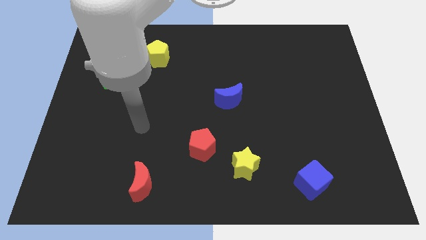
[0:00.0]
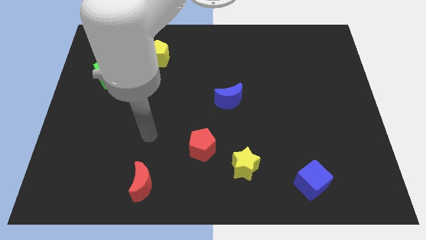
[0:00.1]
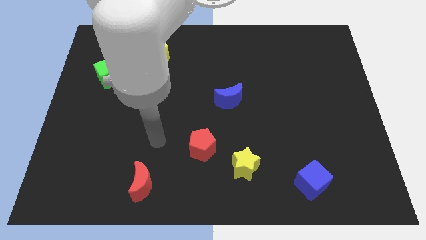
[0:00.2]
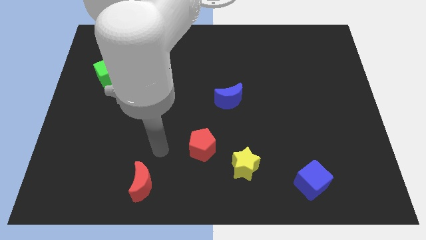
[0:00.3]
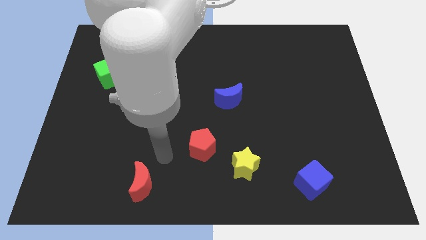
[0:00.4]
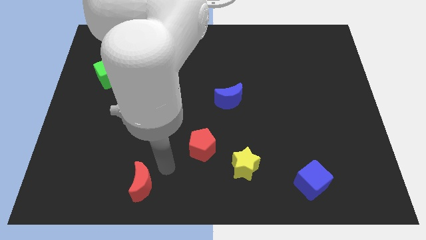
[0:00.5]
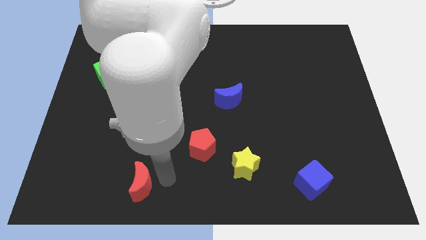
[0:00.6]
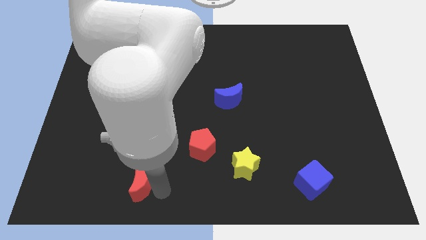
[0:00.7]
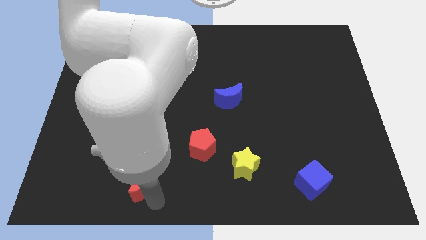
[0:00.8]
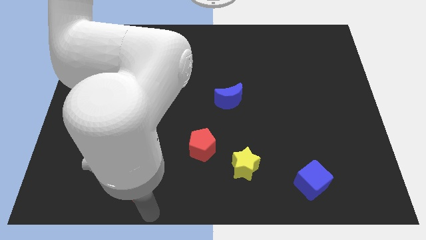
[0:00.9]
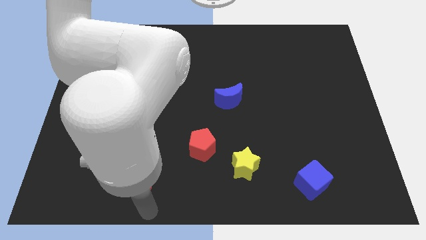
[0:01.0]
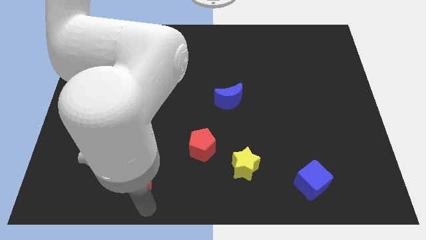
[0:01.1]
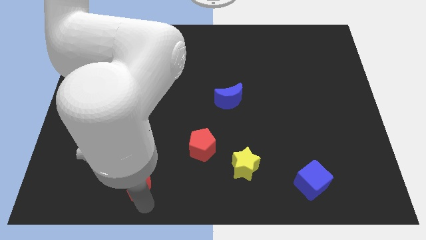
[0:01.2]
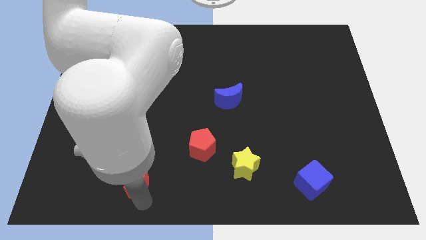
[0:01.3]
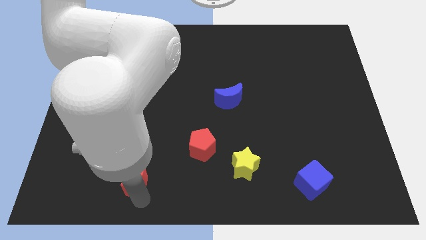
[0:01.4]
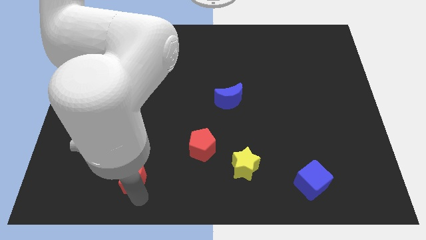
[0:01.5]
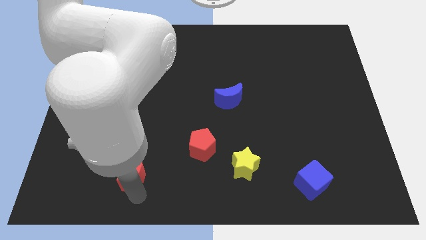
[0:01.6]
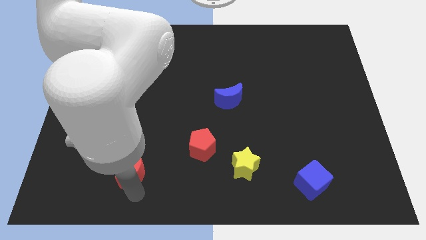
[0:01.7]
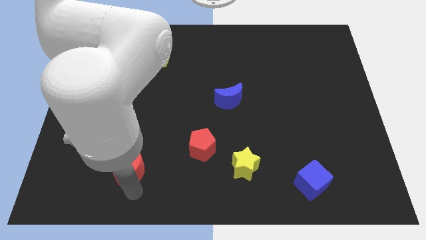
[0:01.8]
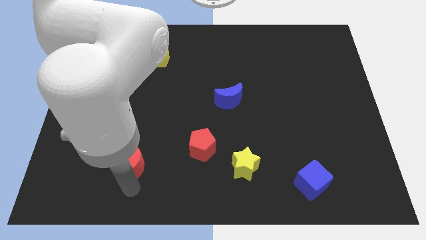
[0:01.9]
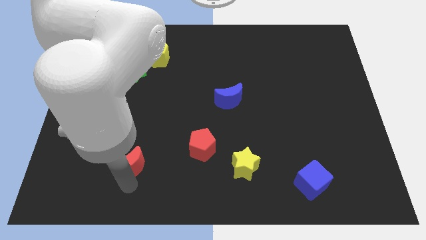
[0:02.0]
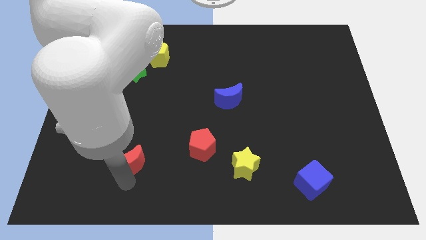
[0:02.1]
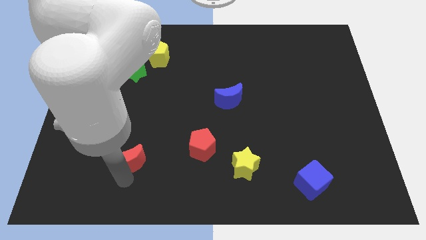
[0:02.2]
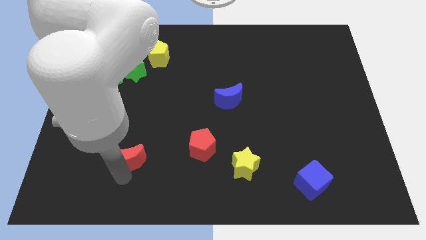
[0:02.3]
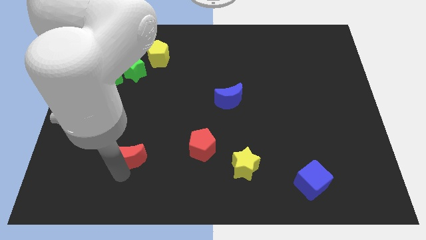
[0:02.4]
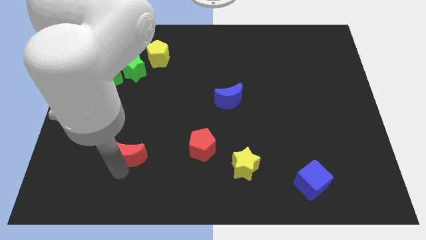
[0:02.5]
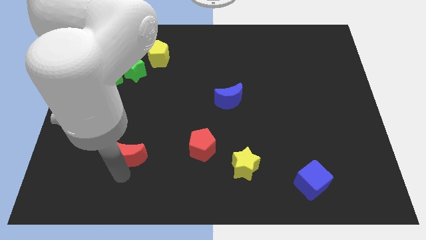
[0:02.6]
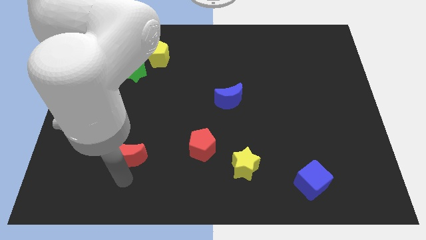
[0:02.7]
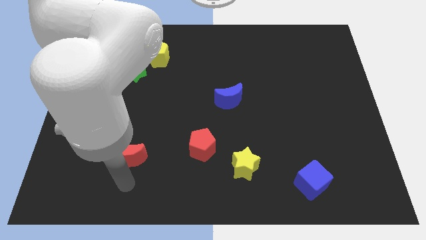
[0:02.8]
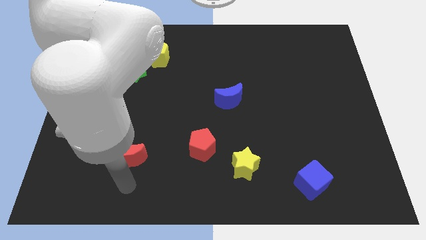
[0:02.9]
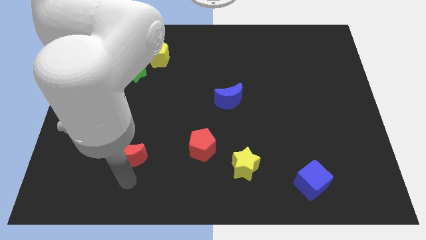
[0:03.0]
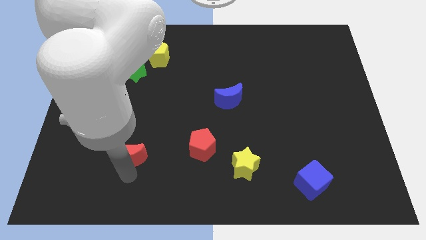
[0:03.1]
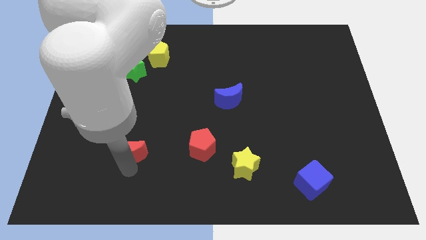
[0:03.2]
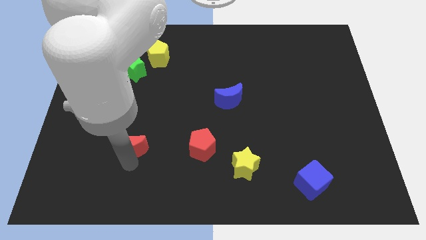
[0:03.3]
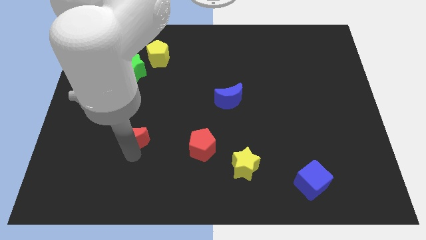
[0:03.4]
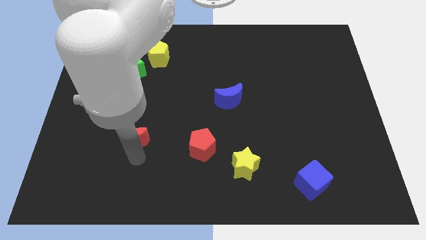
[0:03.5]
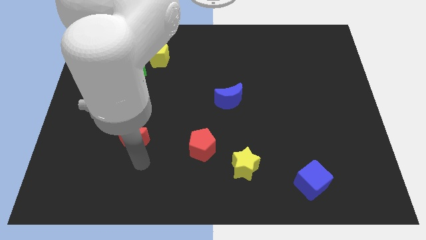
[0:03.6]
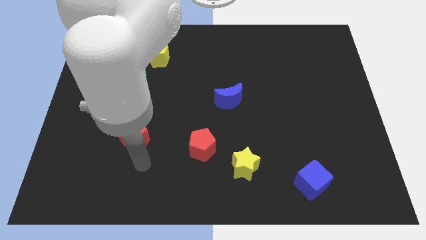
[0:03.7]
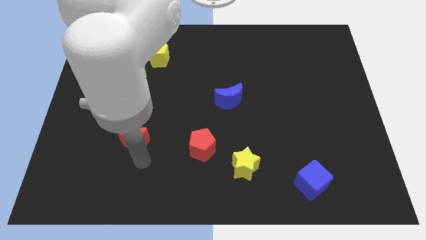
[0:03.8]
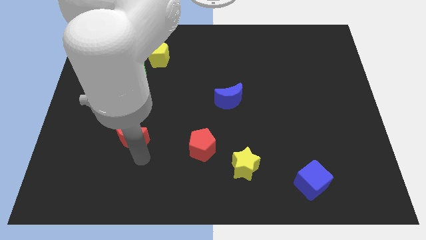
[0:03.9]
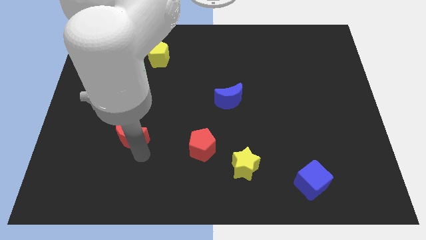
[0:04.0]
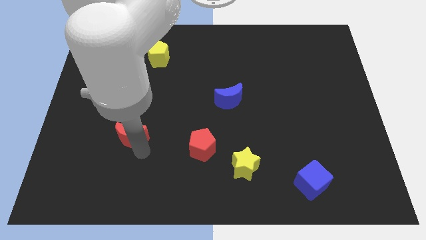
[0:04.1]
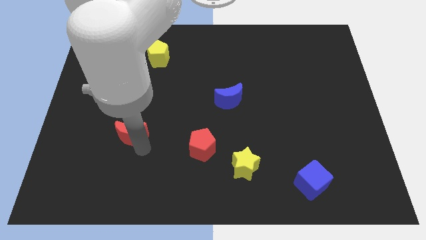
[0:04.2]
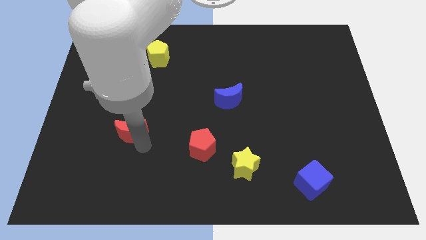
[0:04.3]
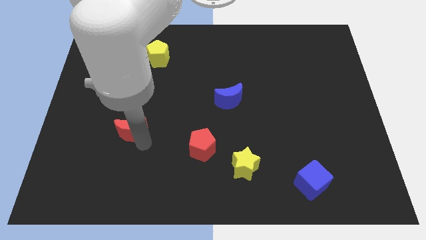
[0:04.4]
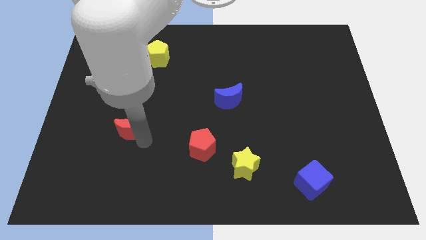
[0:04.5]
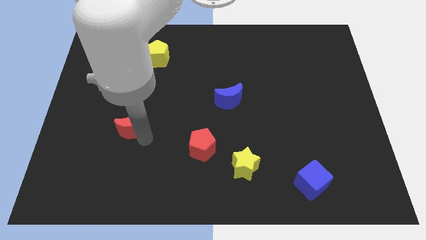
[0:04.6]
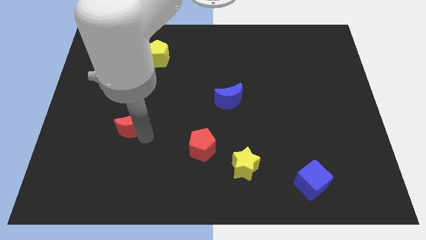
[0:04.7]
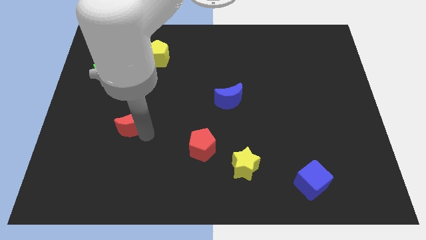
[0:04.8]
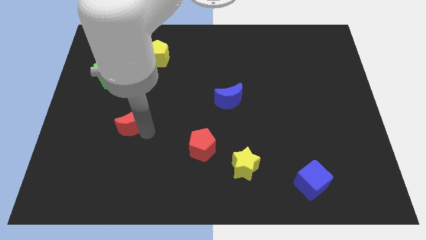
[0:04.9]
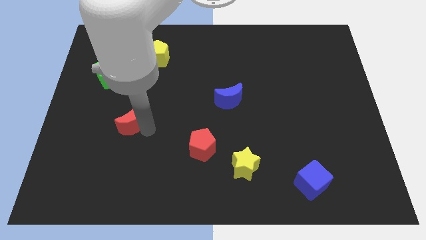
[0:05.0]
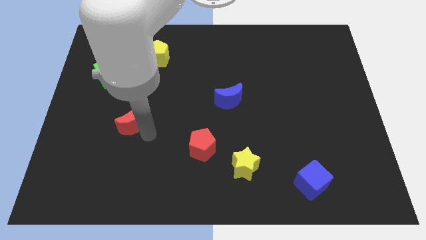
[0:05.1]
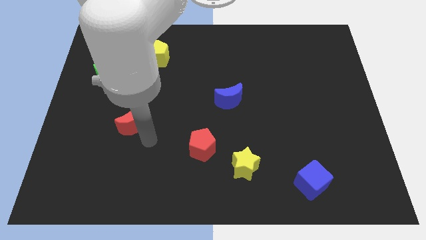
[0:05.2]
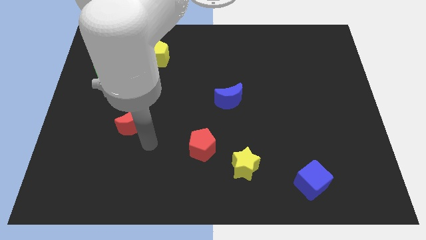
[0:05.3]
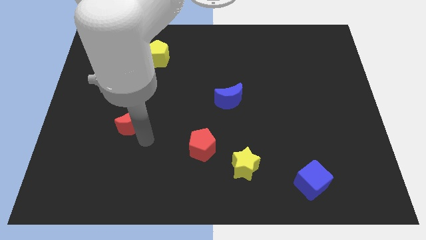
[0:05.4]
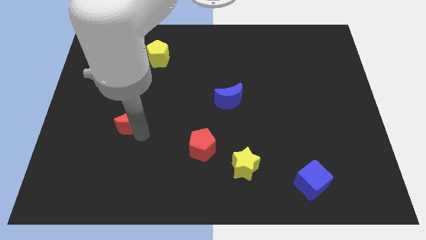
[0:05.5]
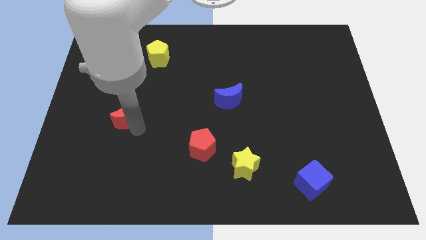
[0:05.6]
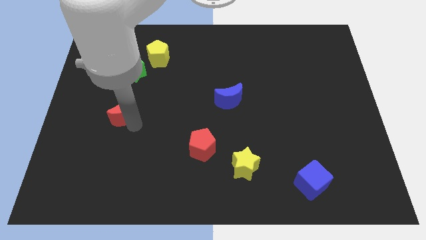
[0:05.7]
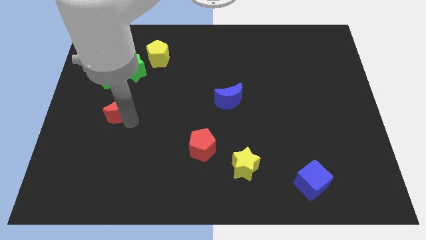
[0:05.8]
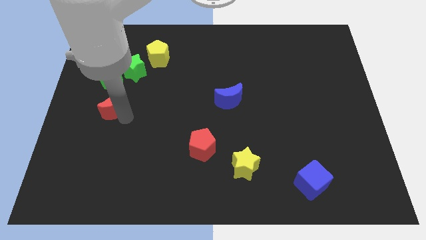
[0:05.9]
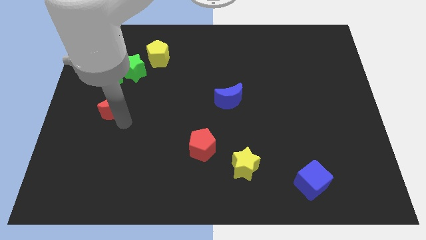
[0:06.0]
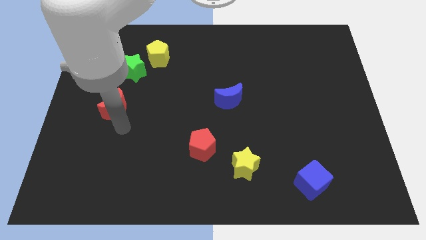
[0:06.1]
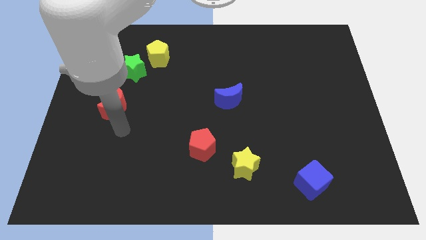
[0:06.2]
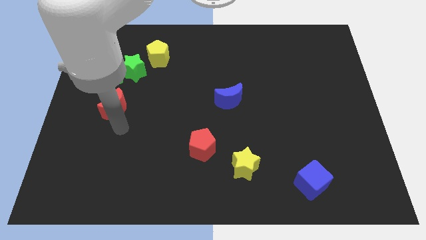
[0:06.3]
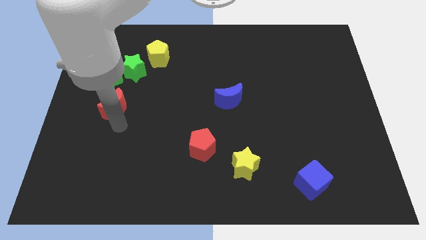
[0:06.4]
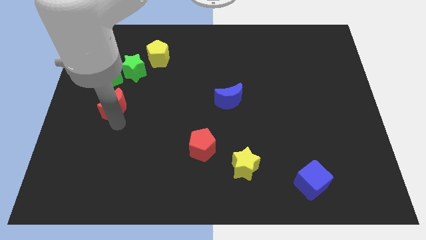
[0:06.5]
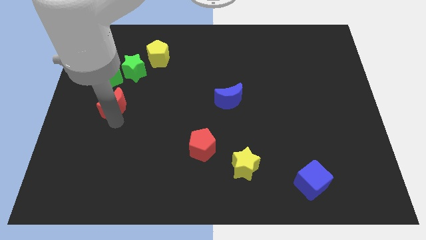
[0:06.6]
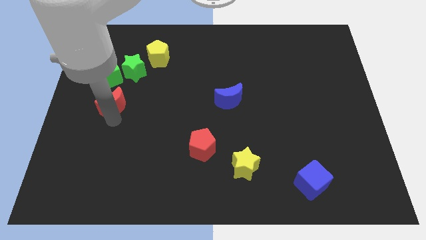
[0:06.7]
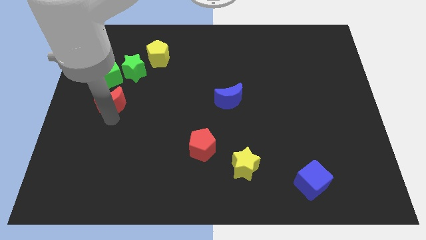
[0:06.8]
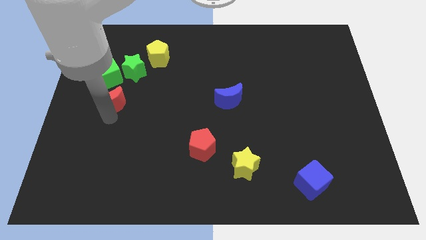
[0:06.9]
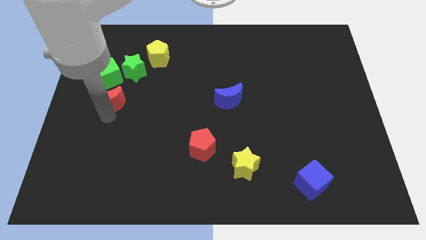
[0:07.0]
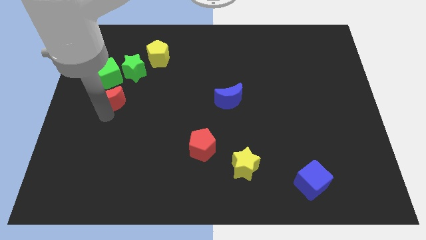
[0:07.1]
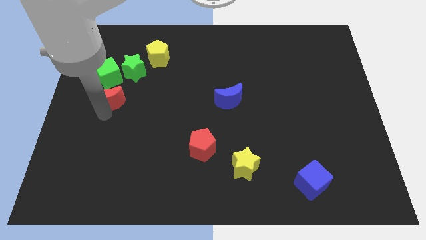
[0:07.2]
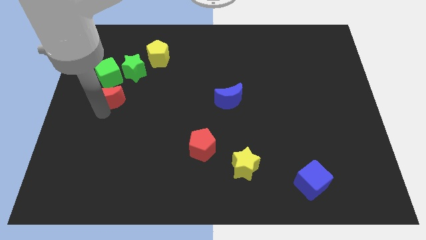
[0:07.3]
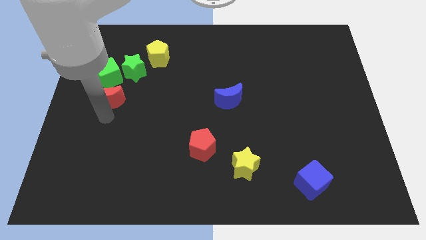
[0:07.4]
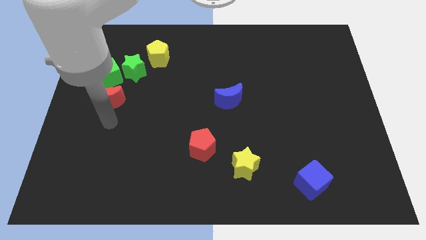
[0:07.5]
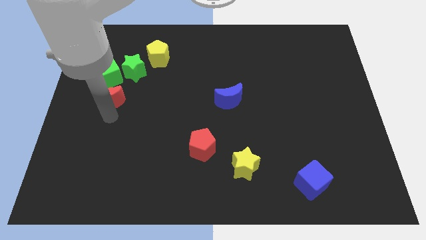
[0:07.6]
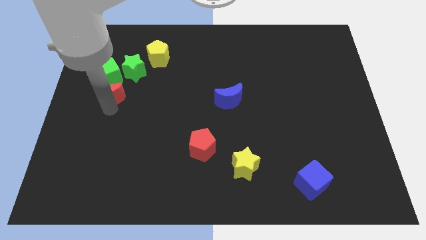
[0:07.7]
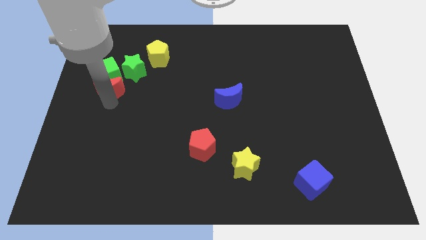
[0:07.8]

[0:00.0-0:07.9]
slide the red moon next to the green cube
